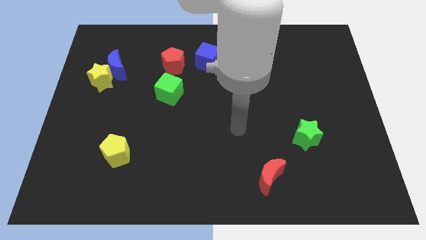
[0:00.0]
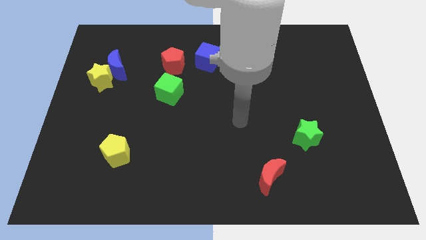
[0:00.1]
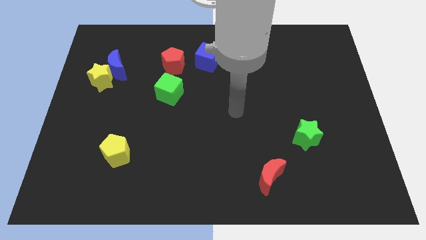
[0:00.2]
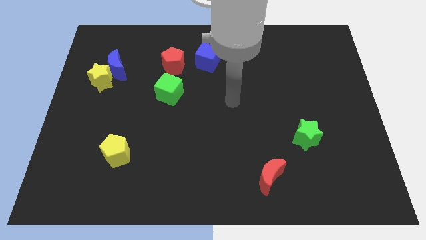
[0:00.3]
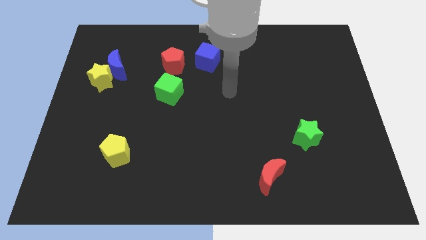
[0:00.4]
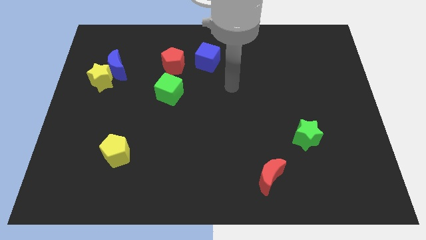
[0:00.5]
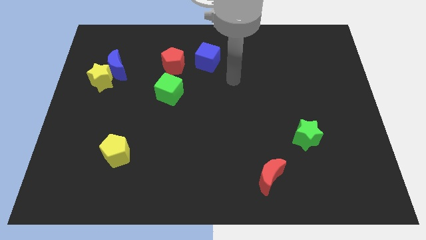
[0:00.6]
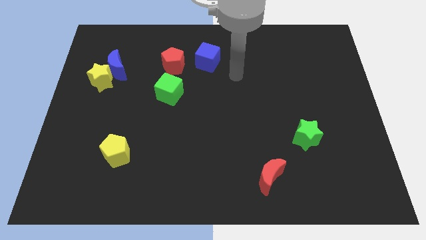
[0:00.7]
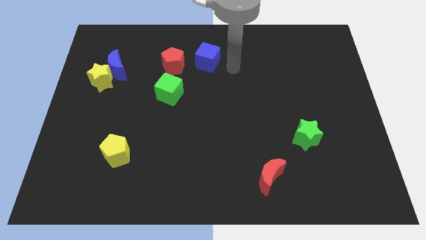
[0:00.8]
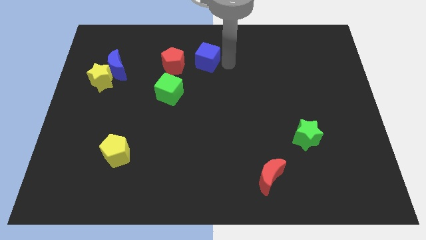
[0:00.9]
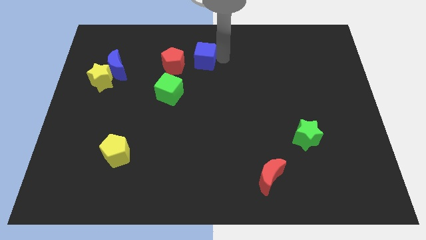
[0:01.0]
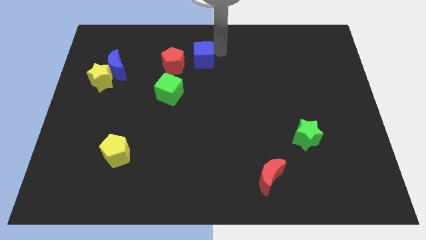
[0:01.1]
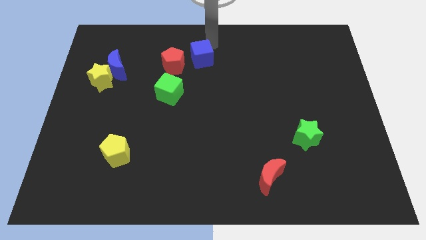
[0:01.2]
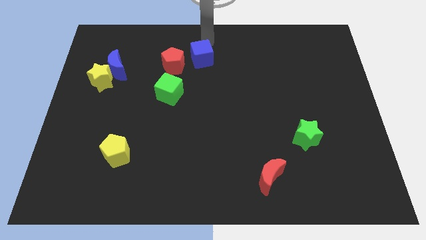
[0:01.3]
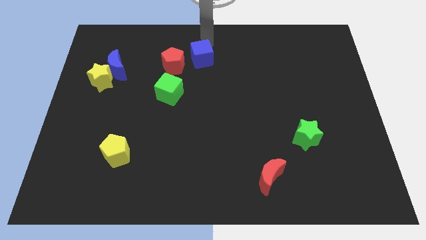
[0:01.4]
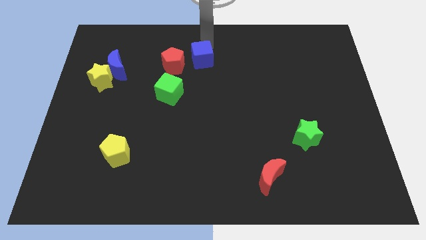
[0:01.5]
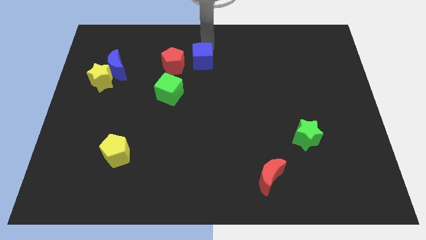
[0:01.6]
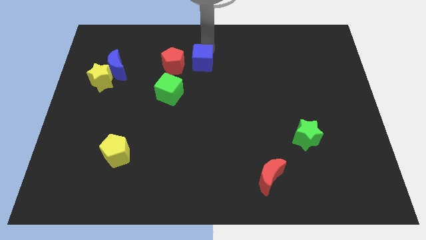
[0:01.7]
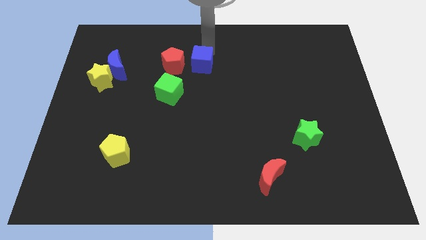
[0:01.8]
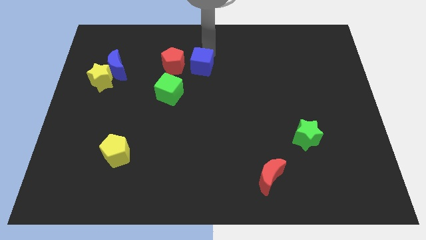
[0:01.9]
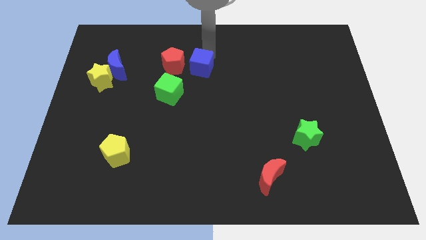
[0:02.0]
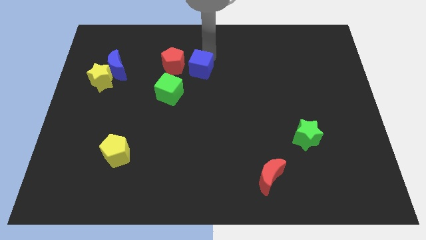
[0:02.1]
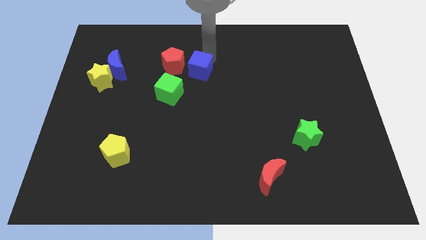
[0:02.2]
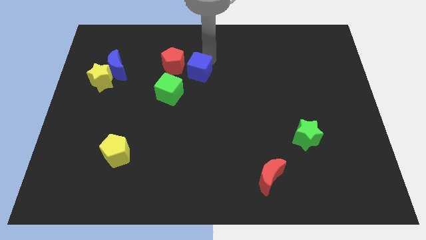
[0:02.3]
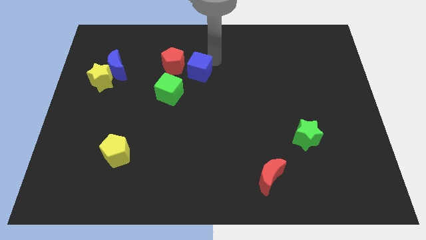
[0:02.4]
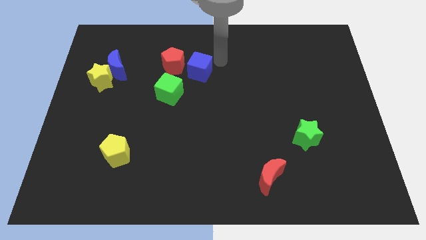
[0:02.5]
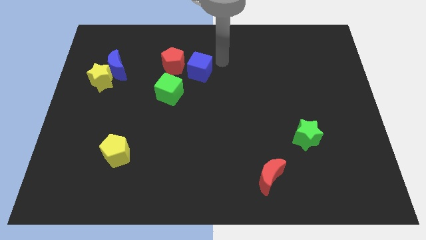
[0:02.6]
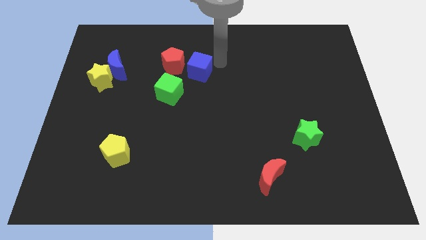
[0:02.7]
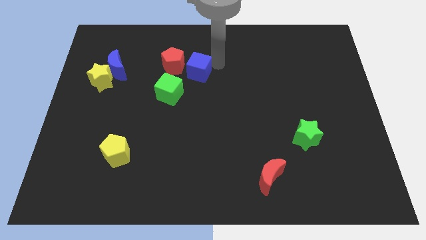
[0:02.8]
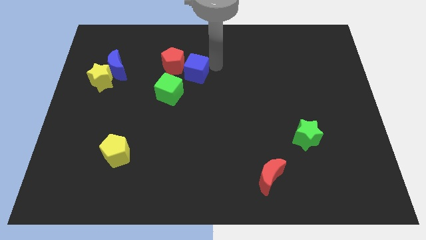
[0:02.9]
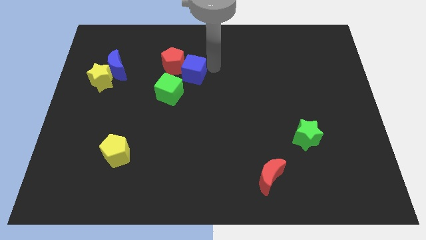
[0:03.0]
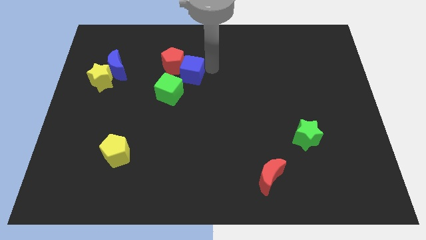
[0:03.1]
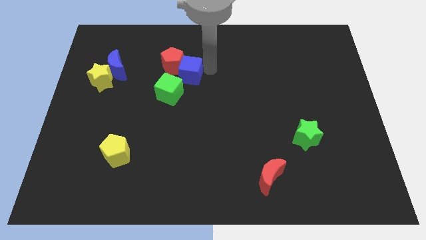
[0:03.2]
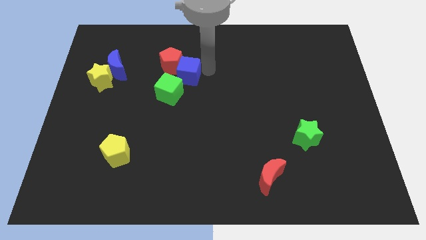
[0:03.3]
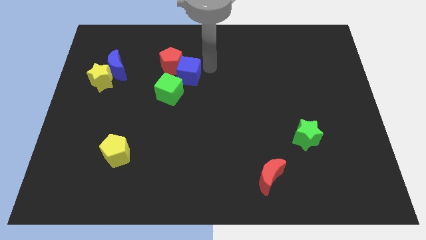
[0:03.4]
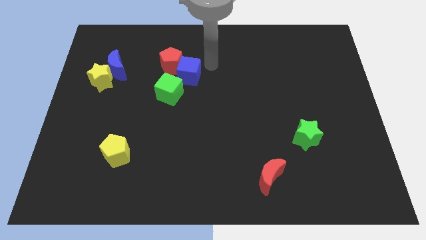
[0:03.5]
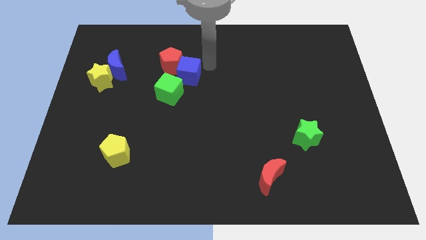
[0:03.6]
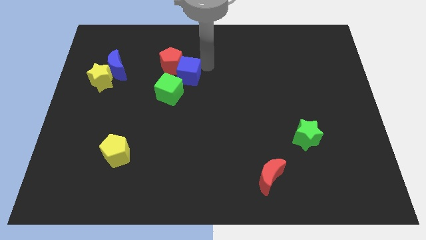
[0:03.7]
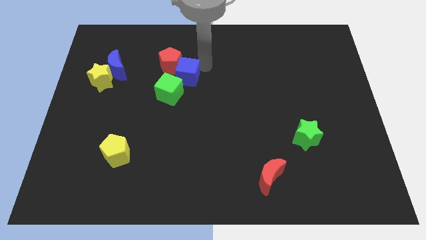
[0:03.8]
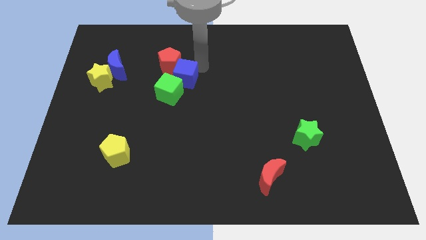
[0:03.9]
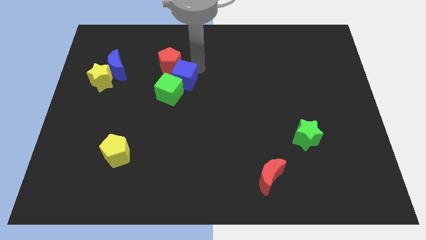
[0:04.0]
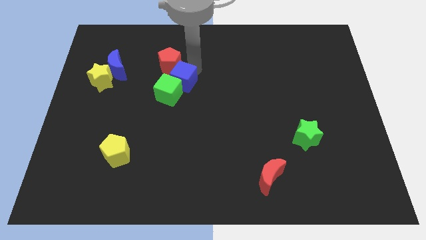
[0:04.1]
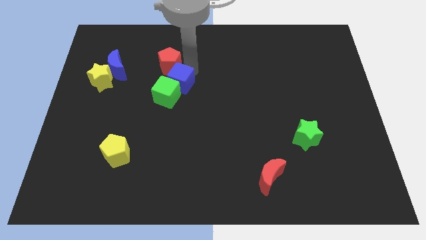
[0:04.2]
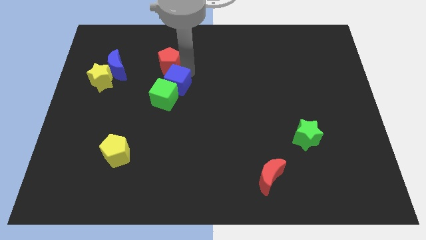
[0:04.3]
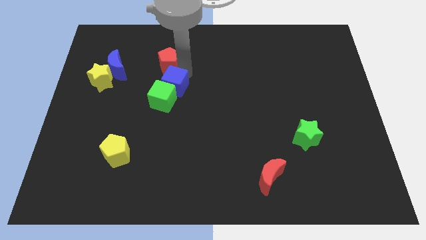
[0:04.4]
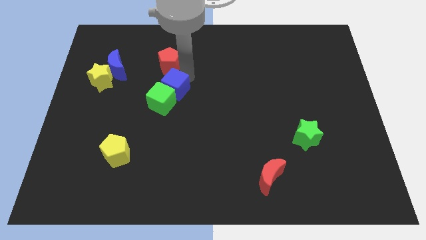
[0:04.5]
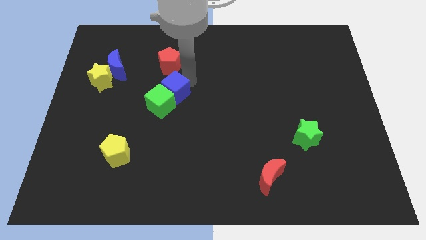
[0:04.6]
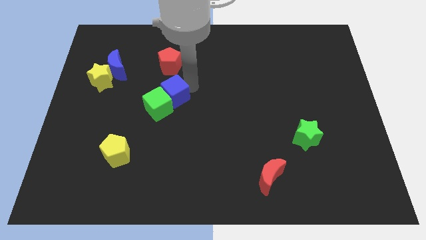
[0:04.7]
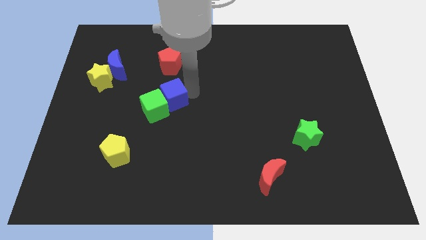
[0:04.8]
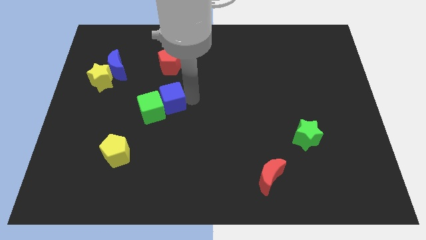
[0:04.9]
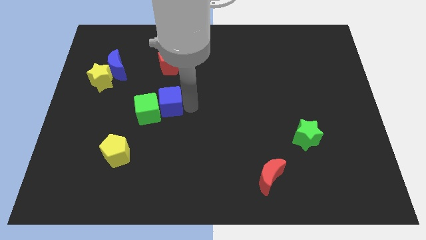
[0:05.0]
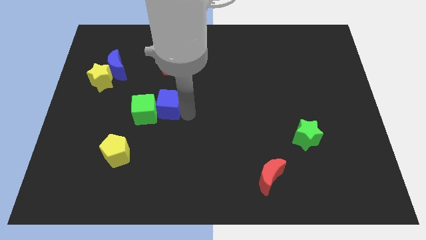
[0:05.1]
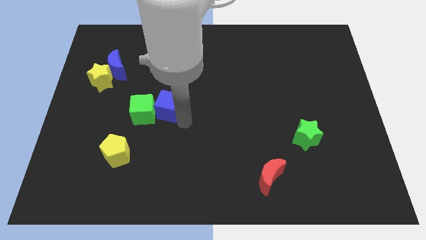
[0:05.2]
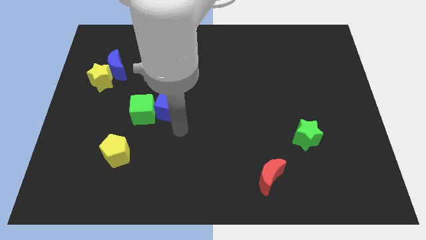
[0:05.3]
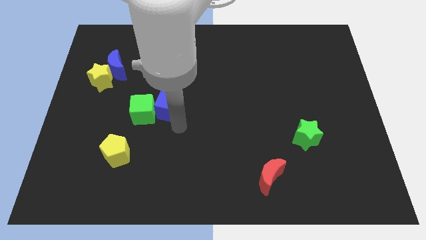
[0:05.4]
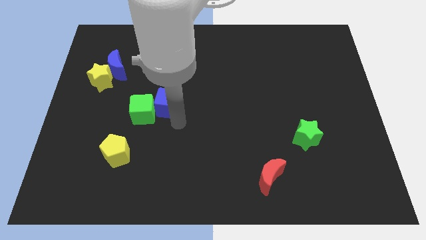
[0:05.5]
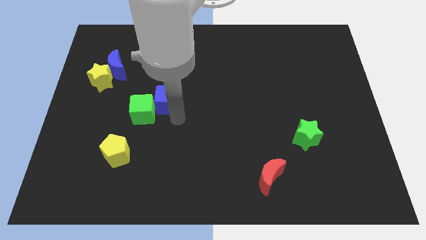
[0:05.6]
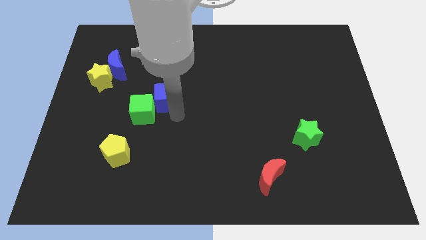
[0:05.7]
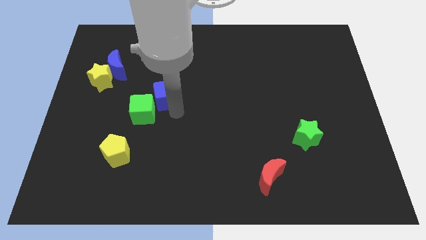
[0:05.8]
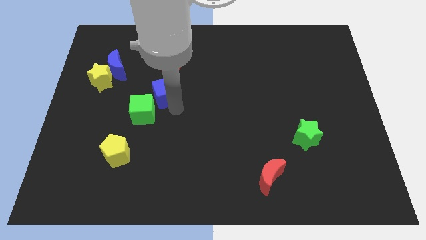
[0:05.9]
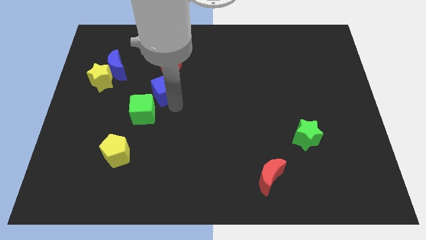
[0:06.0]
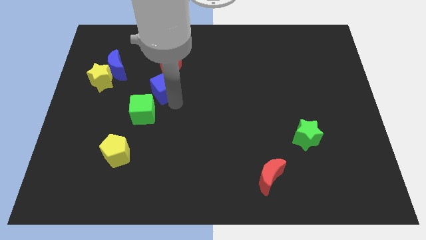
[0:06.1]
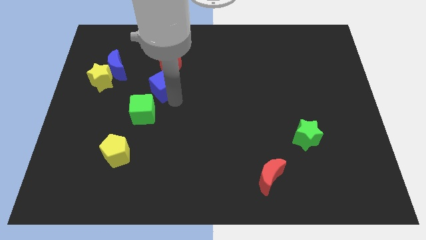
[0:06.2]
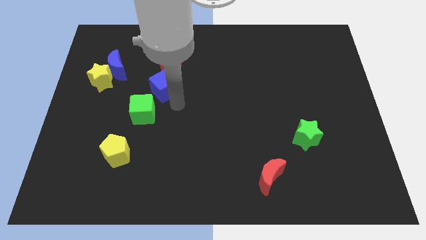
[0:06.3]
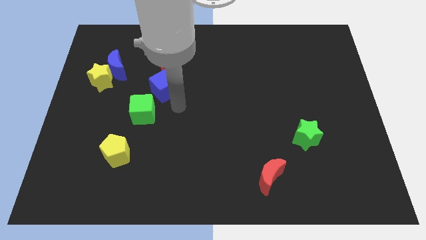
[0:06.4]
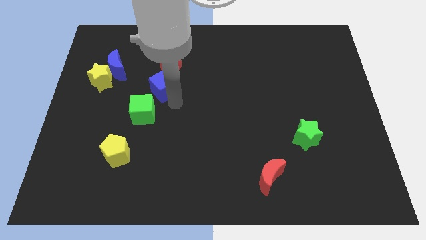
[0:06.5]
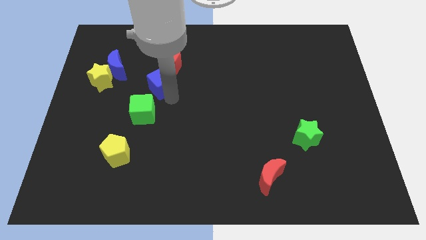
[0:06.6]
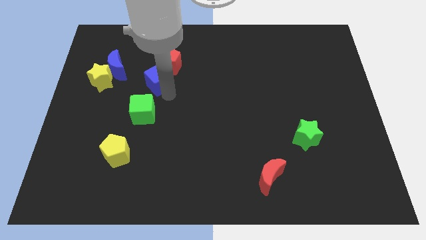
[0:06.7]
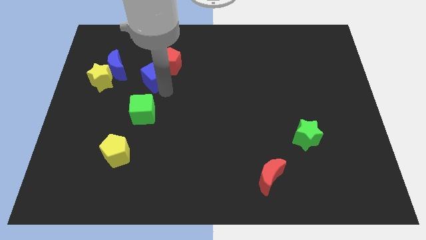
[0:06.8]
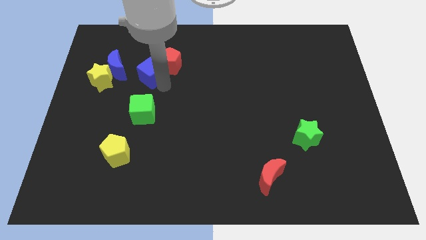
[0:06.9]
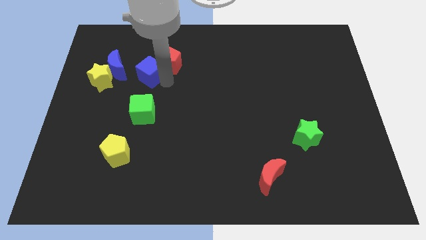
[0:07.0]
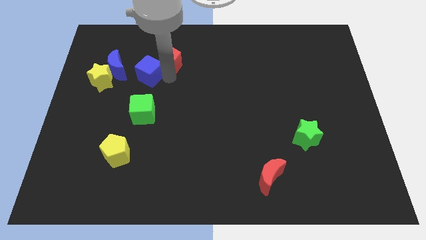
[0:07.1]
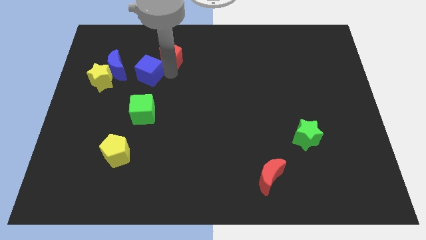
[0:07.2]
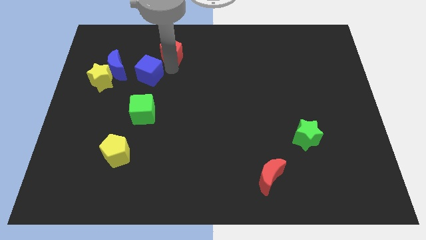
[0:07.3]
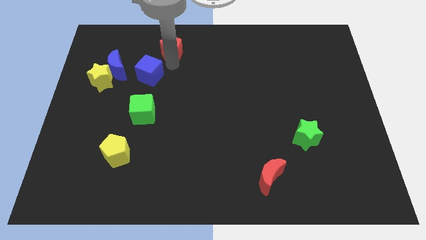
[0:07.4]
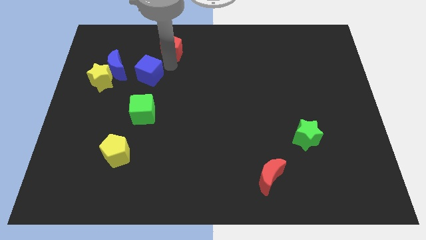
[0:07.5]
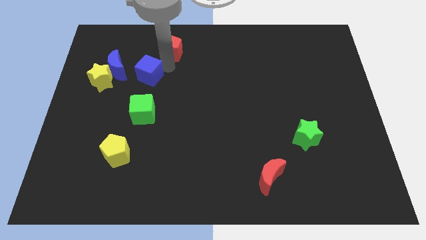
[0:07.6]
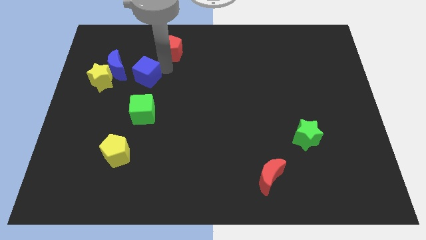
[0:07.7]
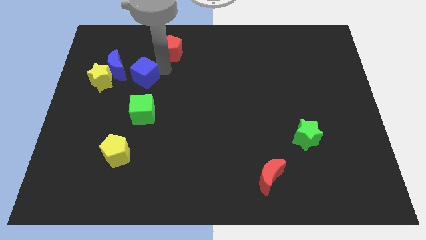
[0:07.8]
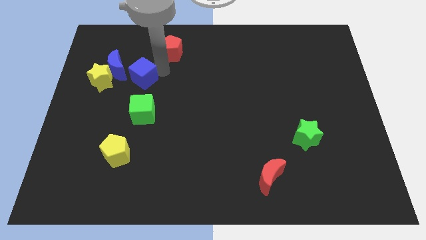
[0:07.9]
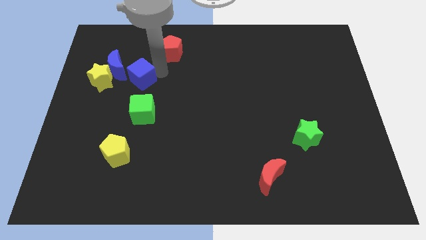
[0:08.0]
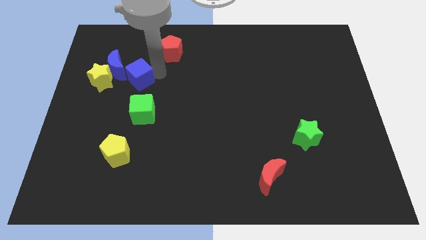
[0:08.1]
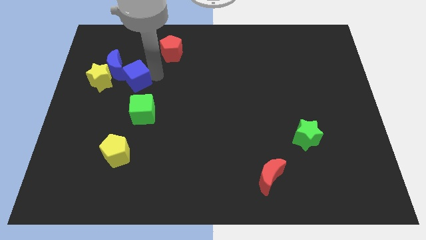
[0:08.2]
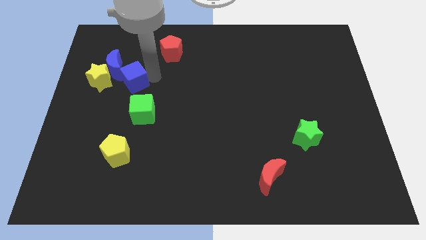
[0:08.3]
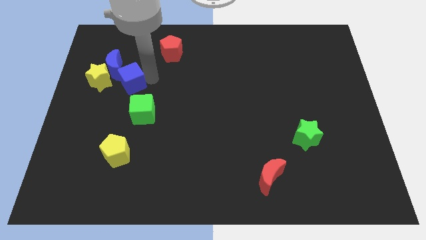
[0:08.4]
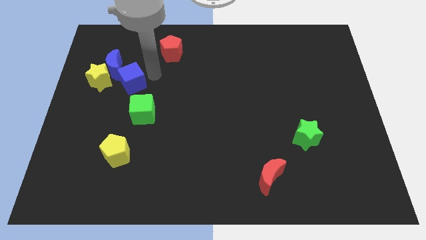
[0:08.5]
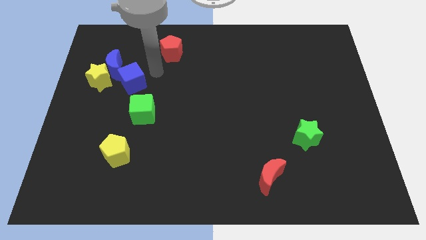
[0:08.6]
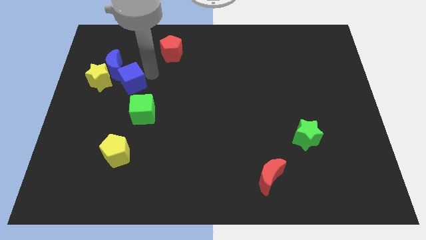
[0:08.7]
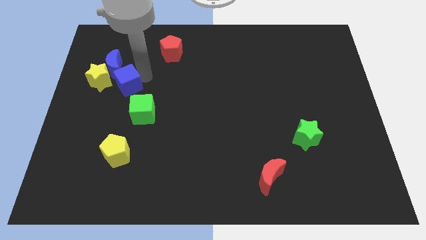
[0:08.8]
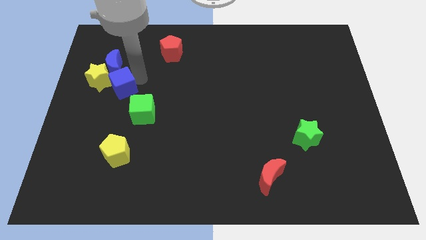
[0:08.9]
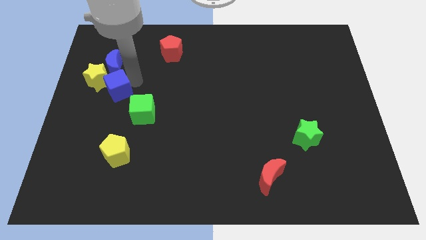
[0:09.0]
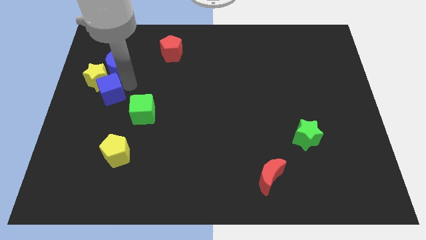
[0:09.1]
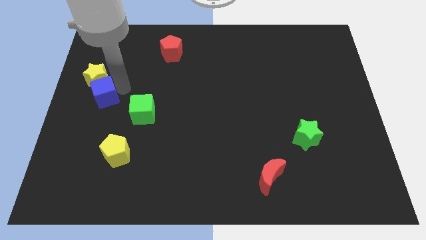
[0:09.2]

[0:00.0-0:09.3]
put the blue cube to the center left
